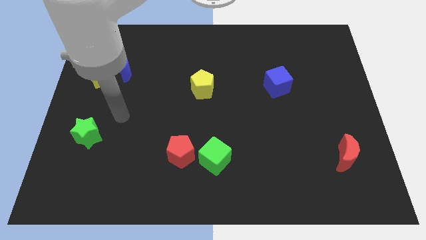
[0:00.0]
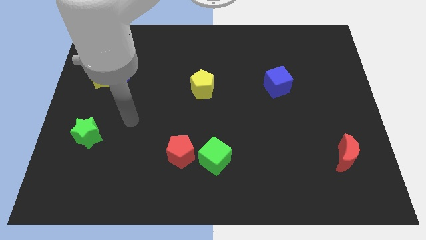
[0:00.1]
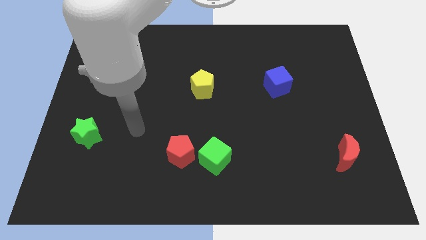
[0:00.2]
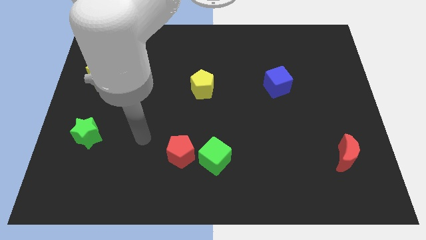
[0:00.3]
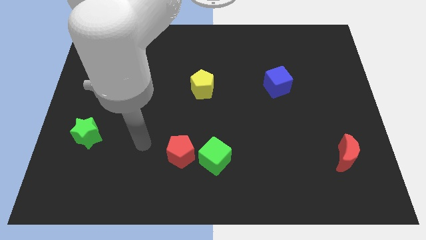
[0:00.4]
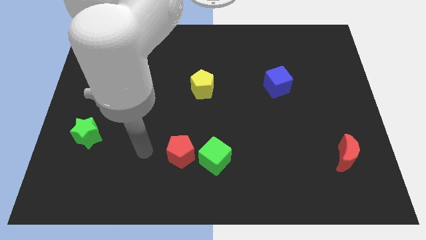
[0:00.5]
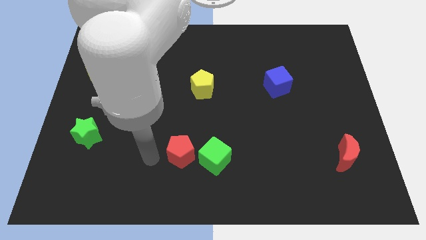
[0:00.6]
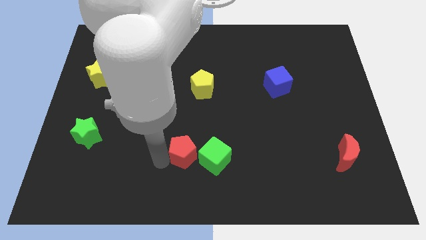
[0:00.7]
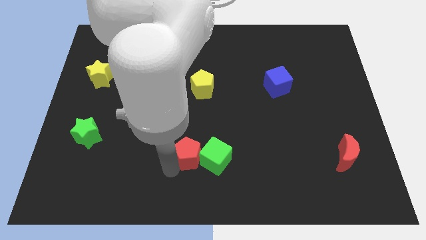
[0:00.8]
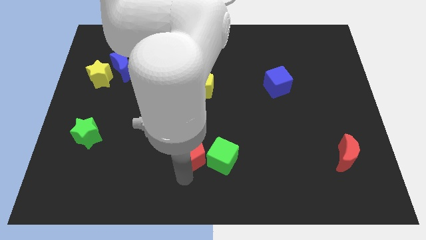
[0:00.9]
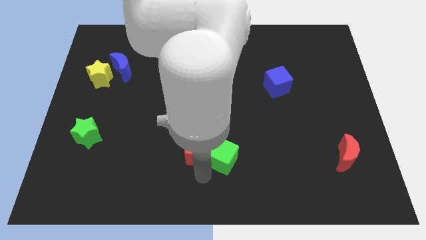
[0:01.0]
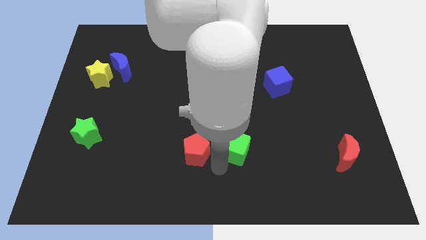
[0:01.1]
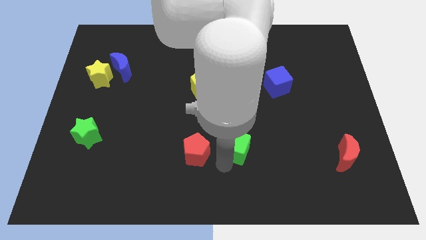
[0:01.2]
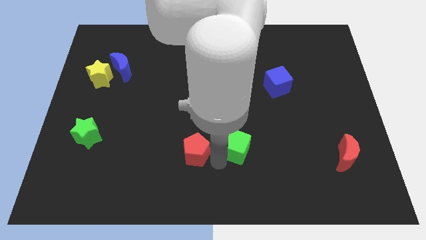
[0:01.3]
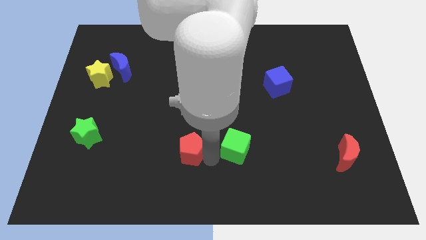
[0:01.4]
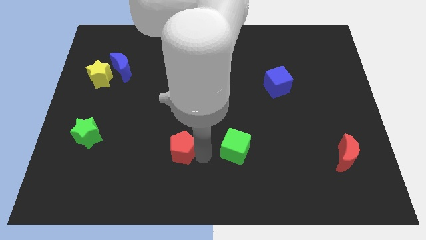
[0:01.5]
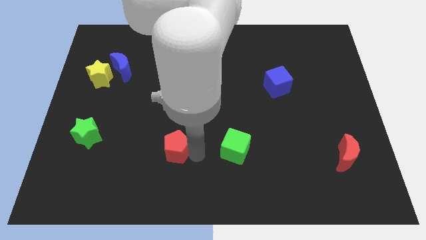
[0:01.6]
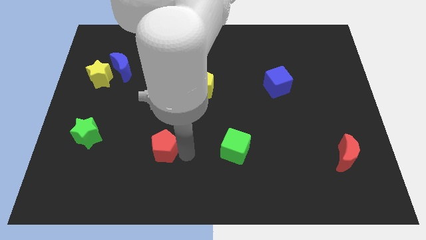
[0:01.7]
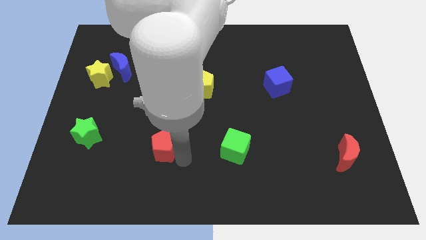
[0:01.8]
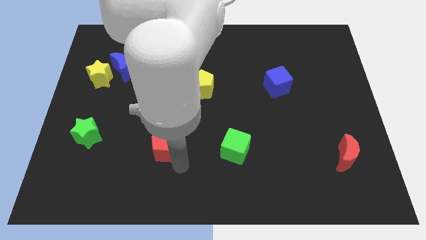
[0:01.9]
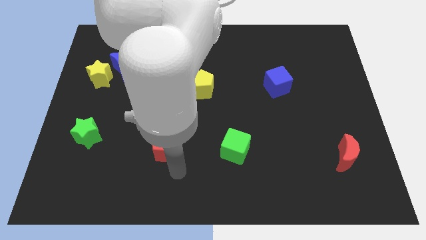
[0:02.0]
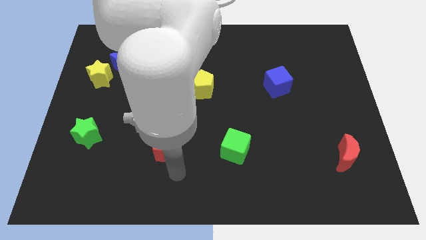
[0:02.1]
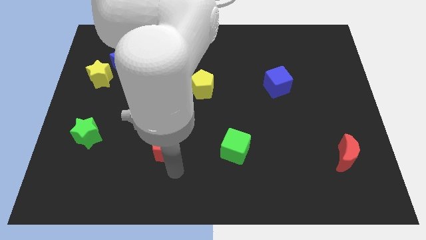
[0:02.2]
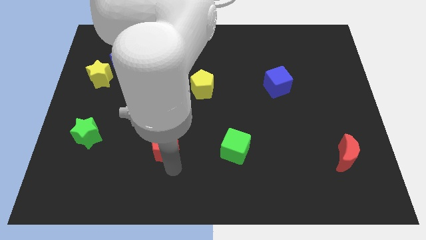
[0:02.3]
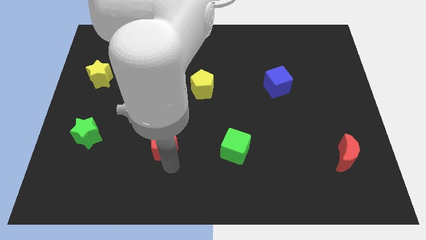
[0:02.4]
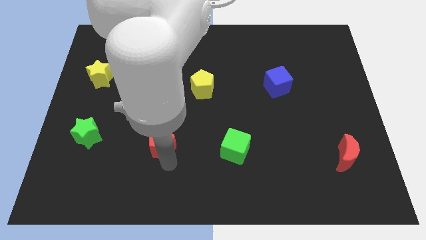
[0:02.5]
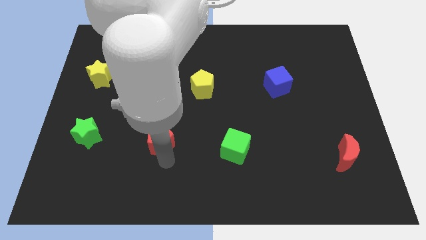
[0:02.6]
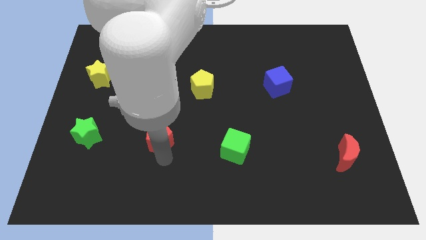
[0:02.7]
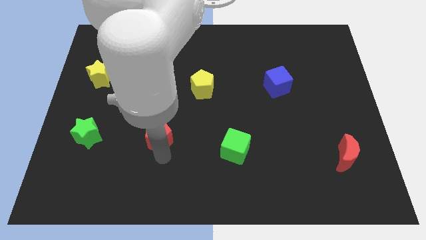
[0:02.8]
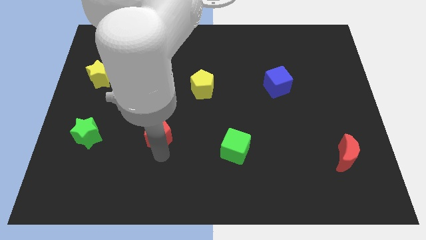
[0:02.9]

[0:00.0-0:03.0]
push the red pentagon diagonally upwards and to the left a little

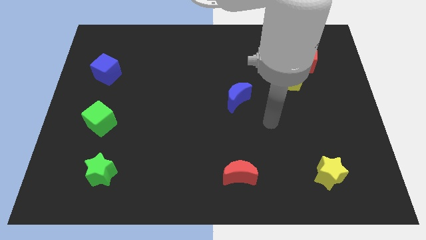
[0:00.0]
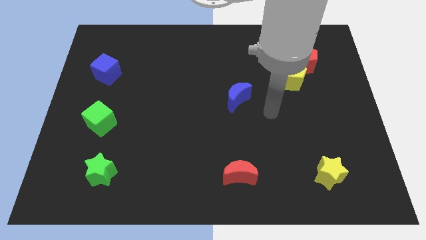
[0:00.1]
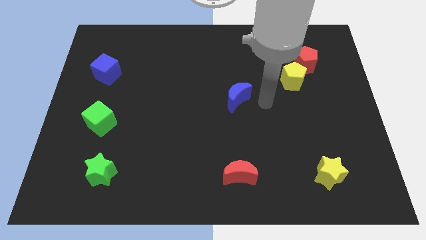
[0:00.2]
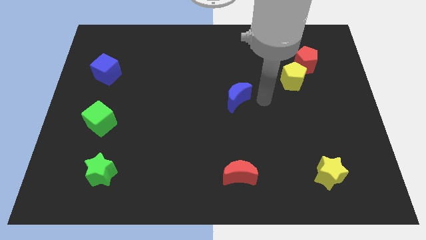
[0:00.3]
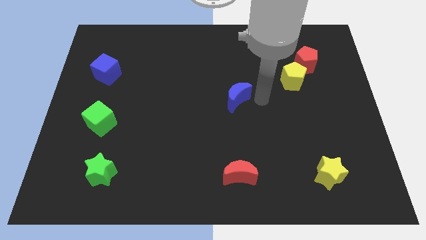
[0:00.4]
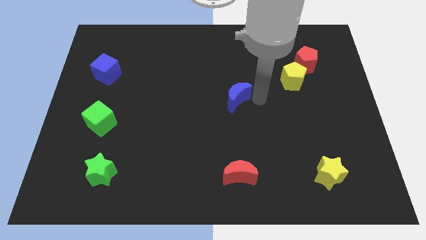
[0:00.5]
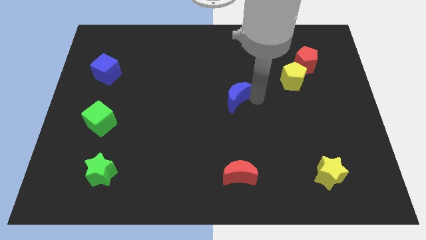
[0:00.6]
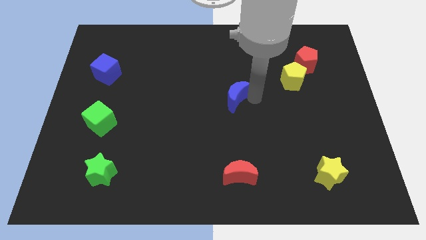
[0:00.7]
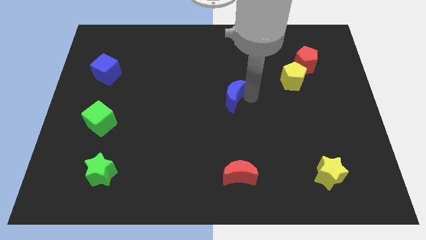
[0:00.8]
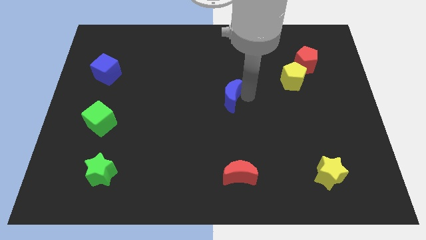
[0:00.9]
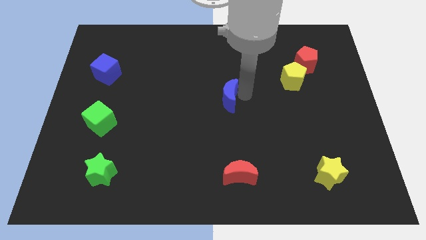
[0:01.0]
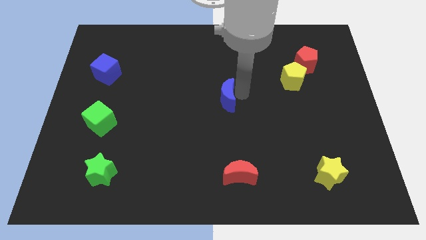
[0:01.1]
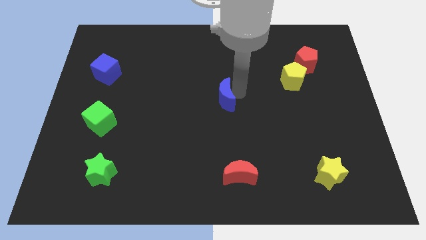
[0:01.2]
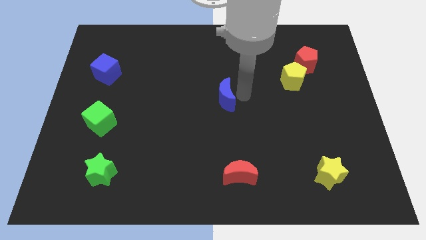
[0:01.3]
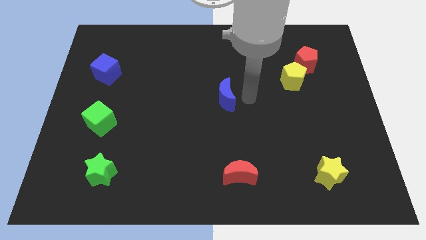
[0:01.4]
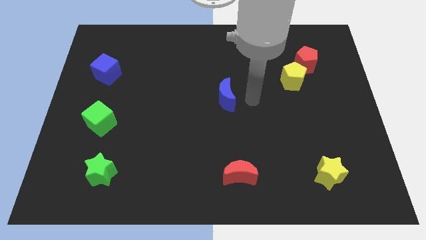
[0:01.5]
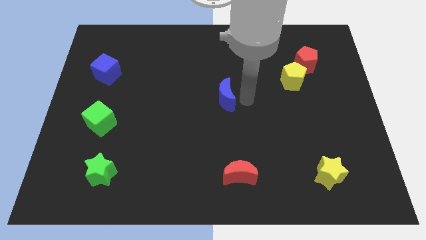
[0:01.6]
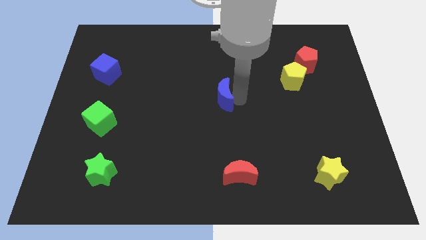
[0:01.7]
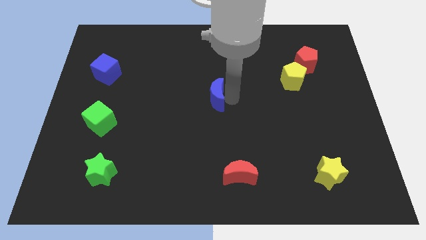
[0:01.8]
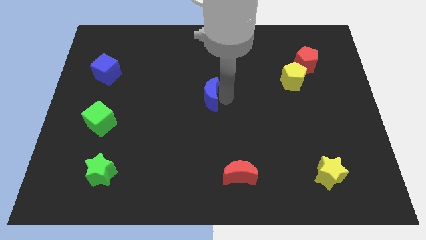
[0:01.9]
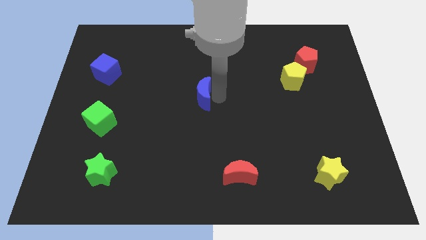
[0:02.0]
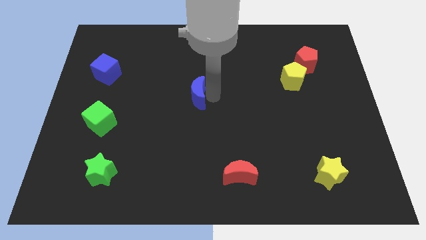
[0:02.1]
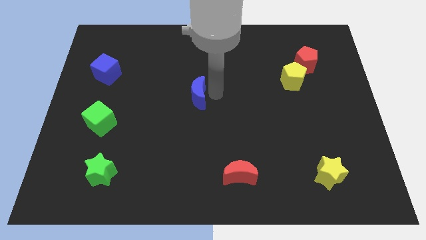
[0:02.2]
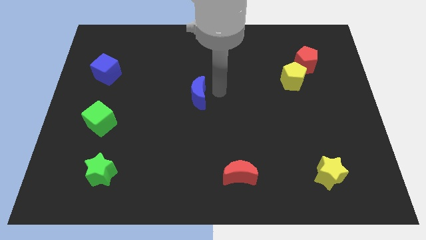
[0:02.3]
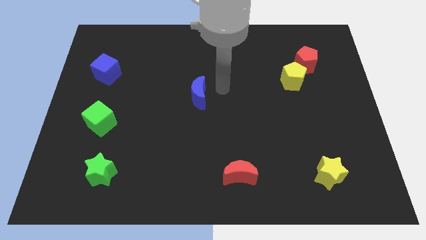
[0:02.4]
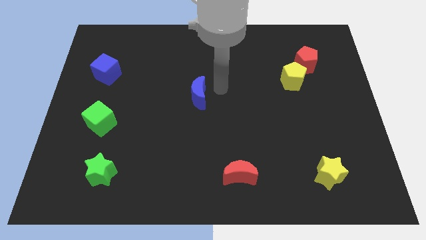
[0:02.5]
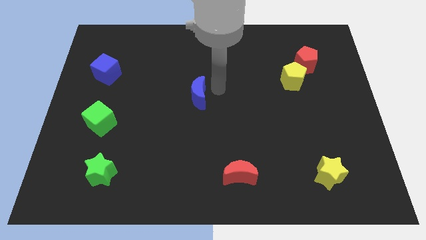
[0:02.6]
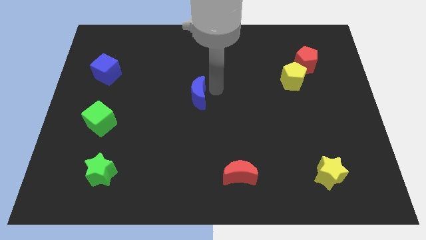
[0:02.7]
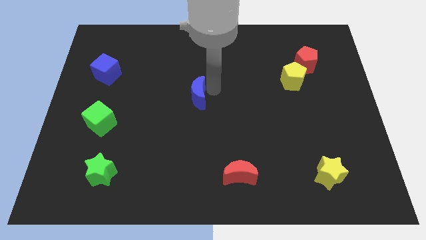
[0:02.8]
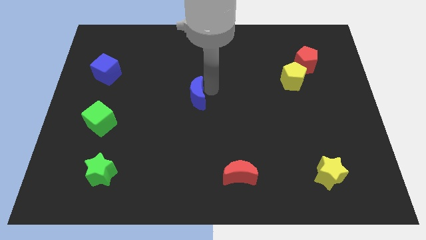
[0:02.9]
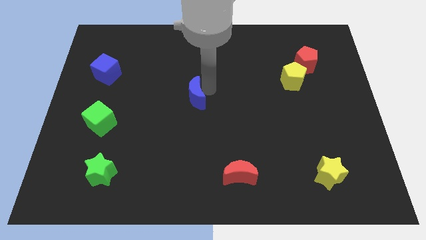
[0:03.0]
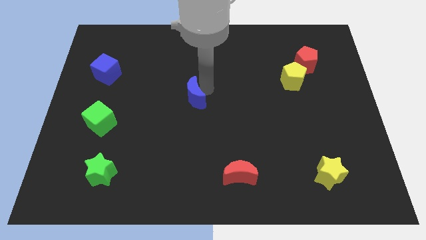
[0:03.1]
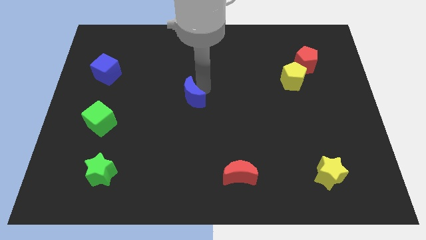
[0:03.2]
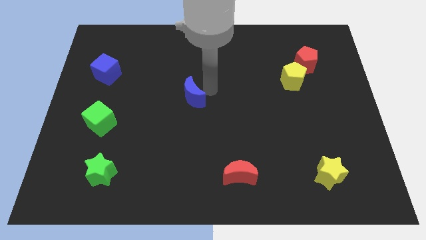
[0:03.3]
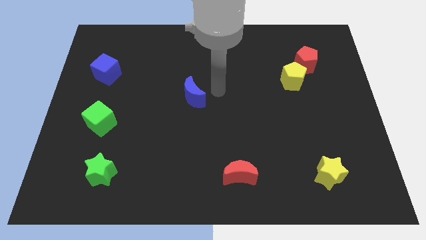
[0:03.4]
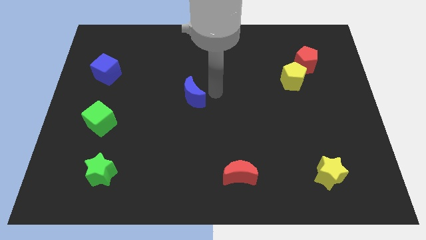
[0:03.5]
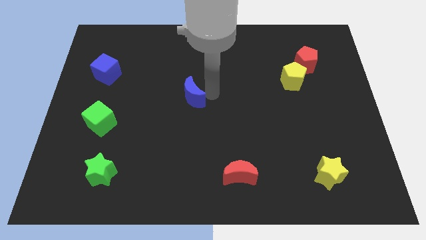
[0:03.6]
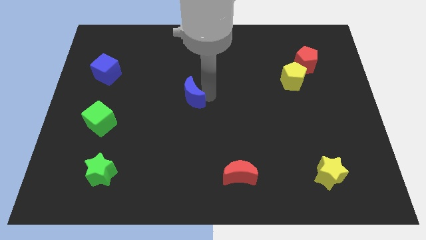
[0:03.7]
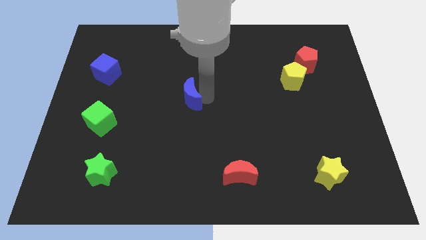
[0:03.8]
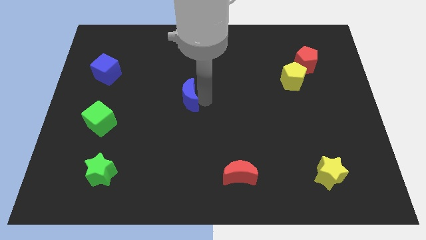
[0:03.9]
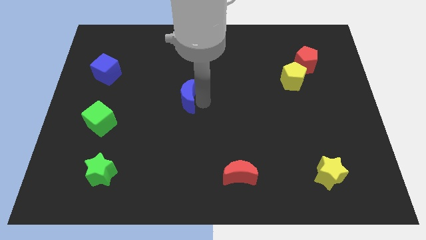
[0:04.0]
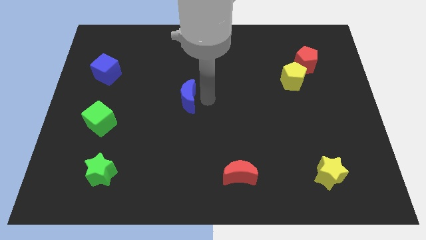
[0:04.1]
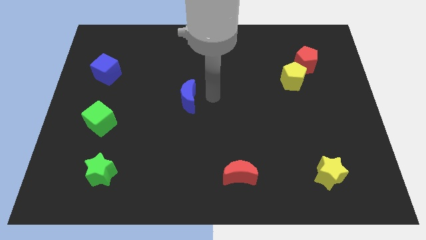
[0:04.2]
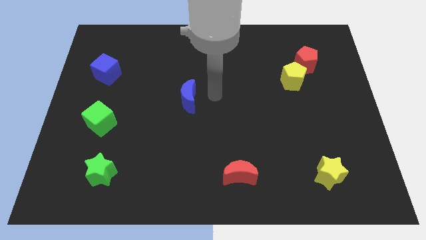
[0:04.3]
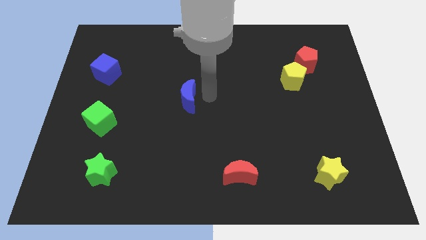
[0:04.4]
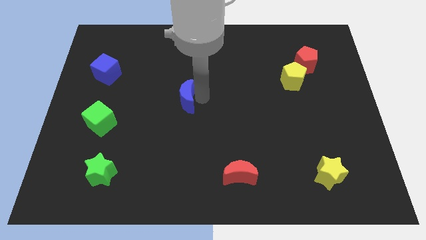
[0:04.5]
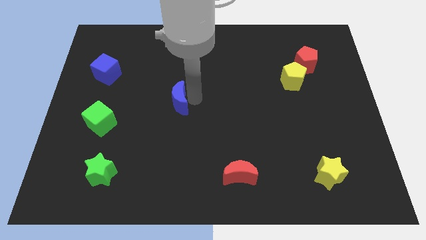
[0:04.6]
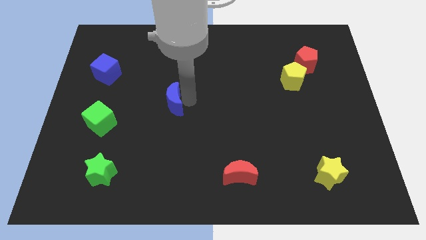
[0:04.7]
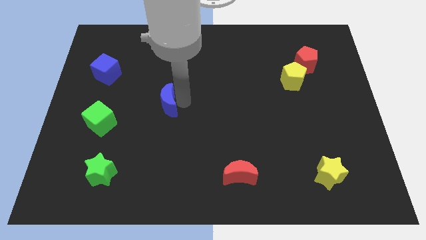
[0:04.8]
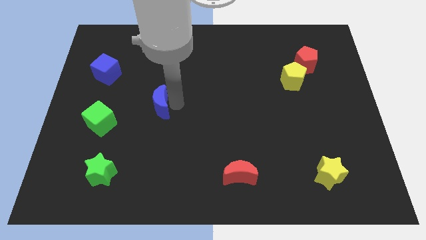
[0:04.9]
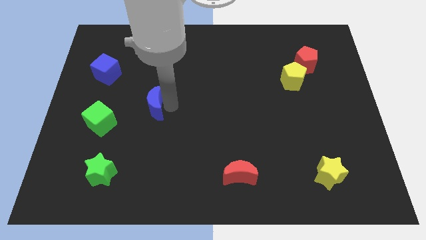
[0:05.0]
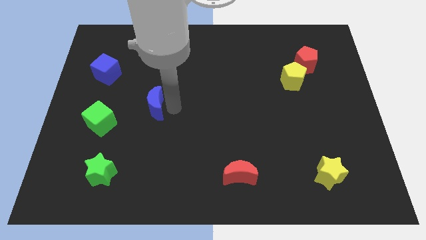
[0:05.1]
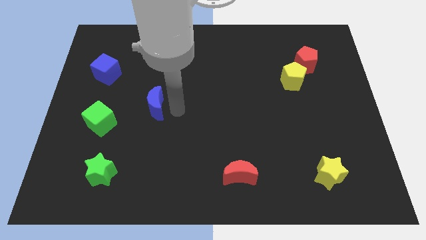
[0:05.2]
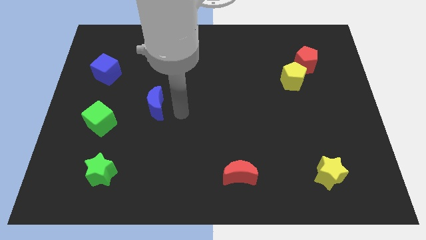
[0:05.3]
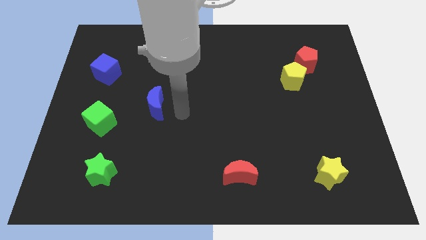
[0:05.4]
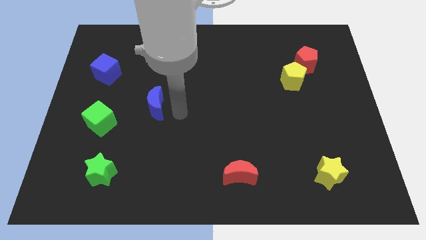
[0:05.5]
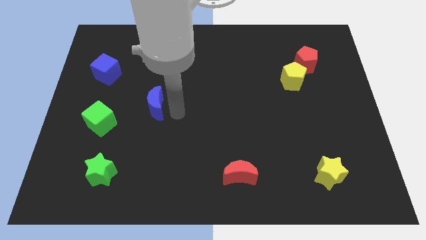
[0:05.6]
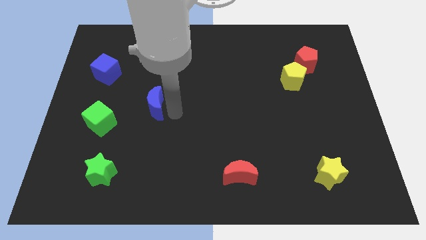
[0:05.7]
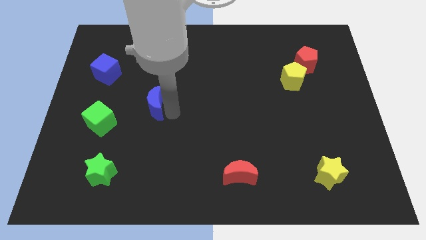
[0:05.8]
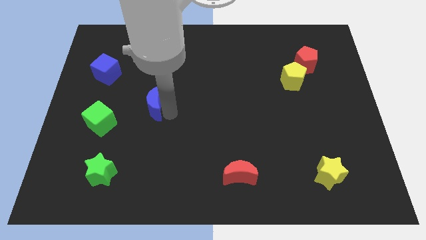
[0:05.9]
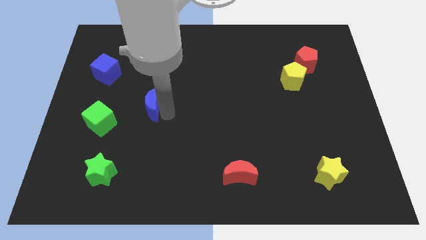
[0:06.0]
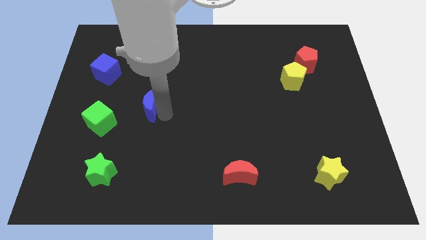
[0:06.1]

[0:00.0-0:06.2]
move the blue moon left
